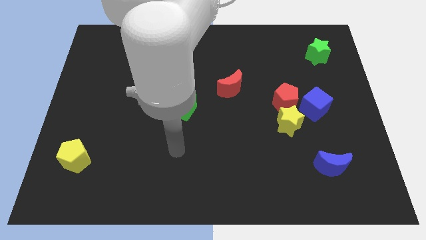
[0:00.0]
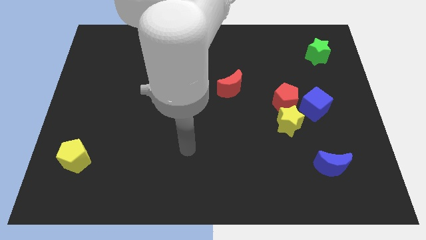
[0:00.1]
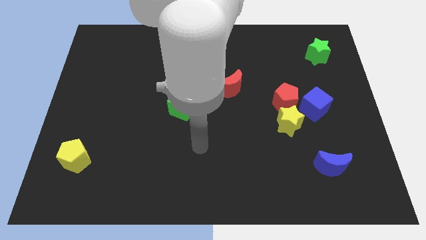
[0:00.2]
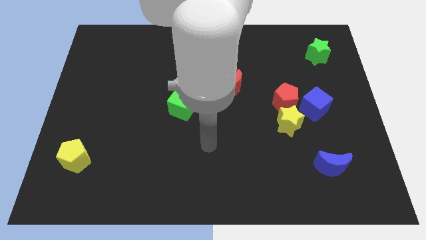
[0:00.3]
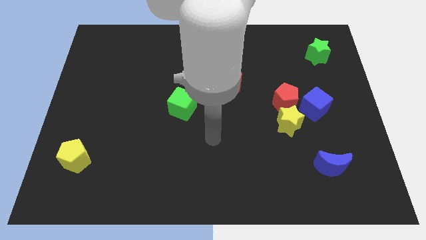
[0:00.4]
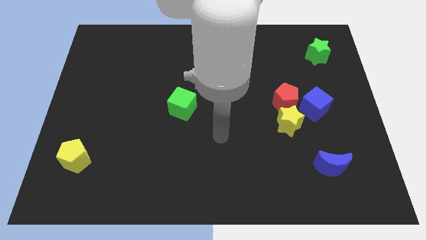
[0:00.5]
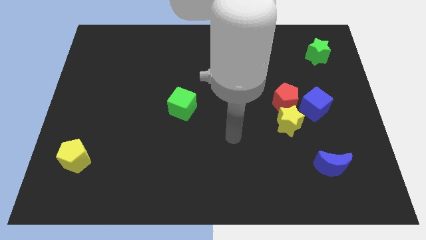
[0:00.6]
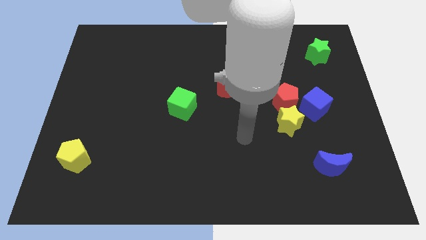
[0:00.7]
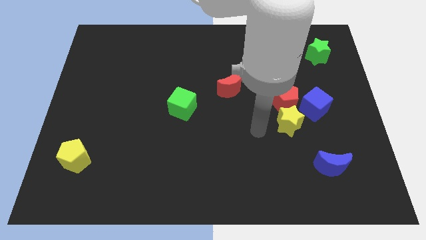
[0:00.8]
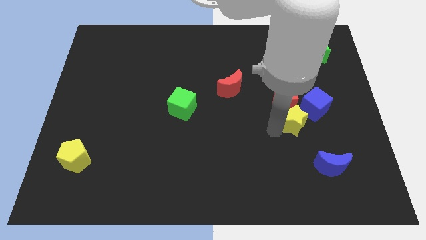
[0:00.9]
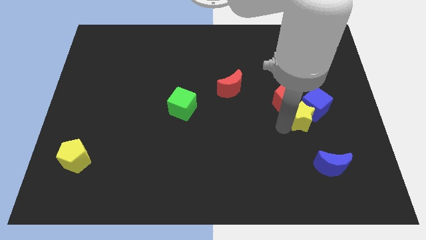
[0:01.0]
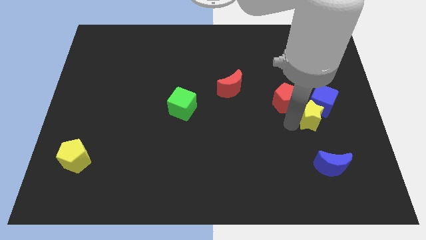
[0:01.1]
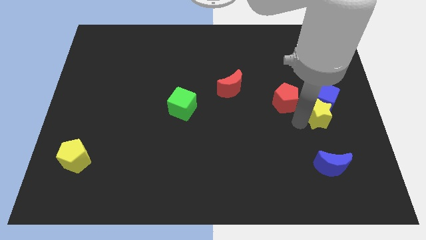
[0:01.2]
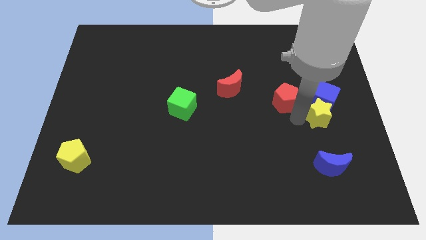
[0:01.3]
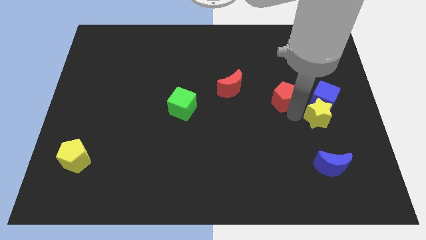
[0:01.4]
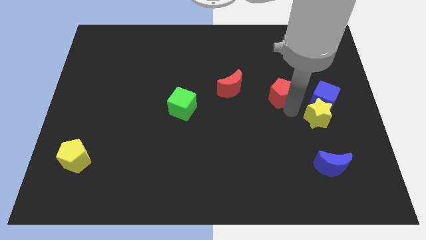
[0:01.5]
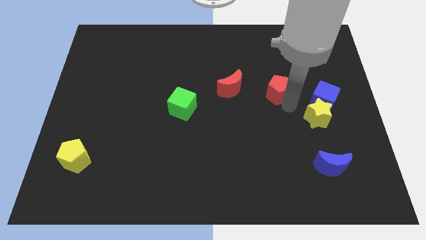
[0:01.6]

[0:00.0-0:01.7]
separate the red pentagon from the yellow star and blue cube

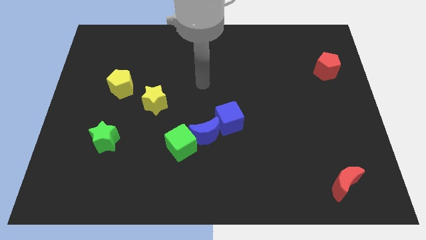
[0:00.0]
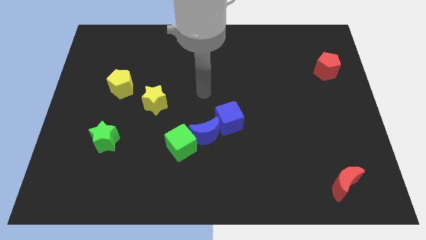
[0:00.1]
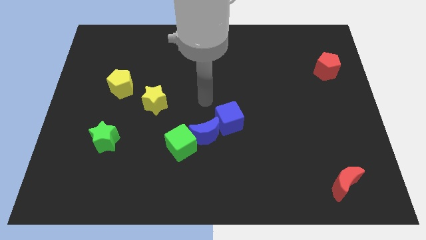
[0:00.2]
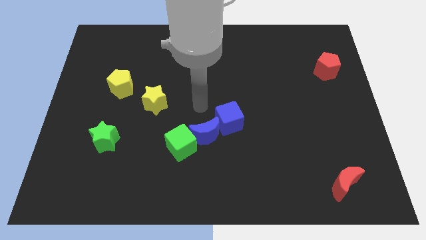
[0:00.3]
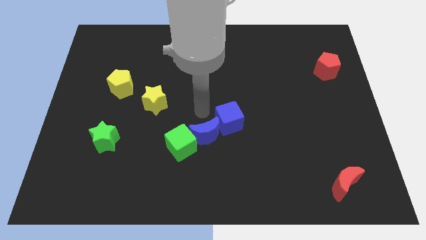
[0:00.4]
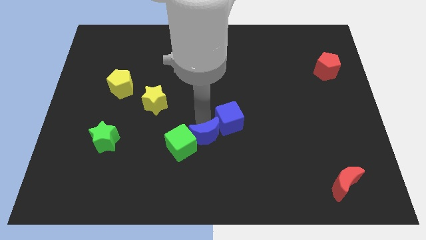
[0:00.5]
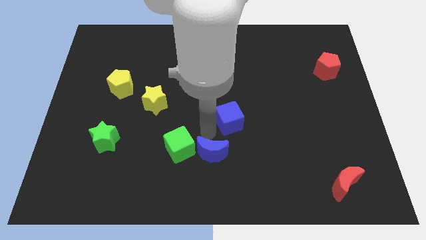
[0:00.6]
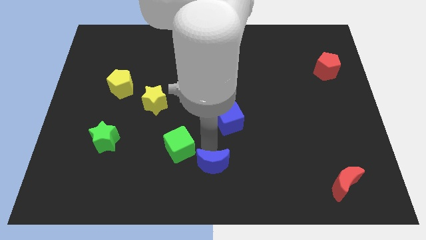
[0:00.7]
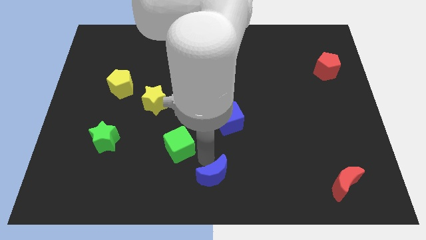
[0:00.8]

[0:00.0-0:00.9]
separate the green cube from the blue moon

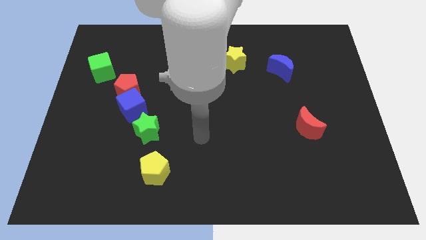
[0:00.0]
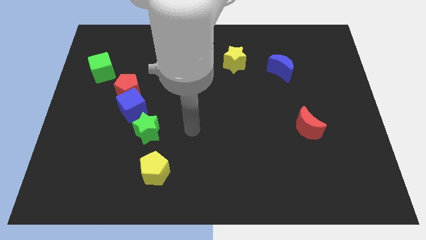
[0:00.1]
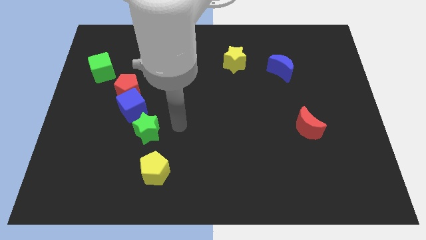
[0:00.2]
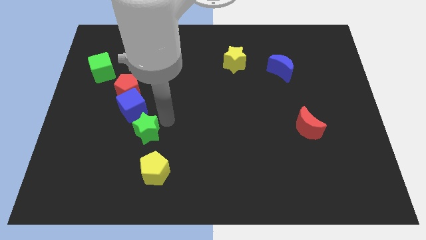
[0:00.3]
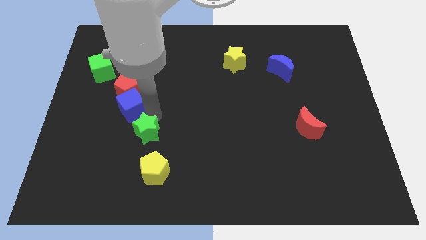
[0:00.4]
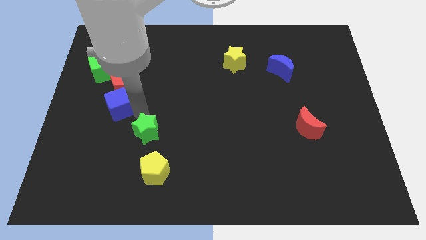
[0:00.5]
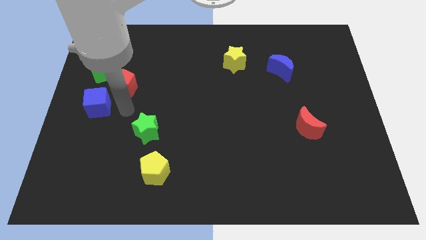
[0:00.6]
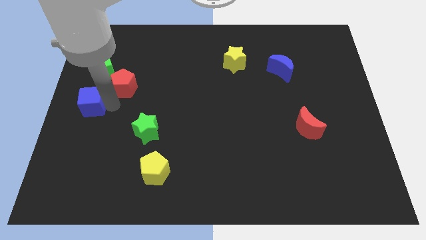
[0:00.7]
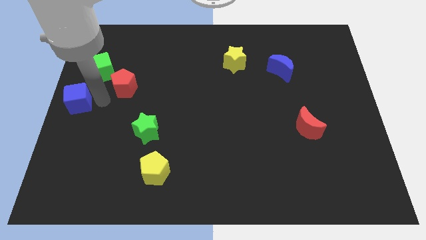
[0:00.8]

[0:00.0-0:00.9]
pull the red pentagon apart from the blue cube

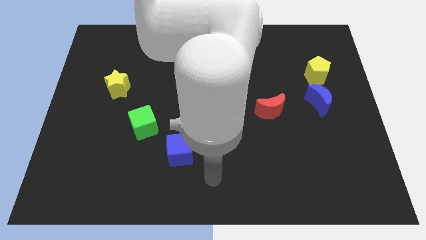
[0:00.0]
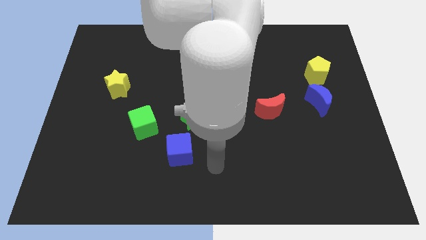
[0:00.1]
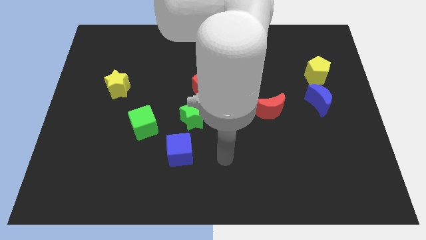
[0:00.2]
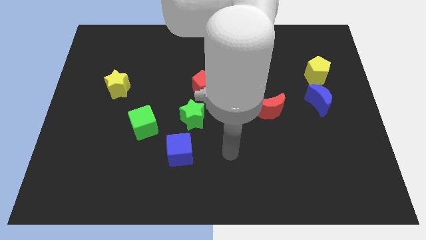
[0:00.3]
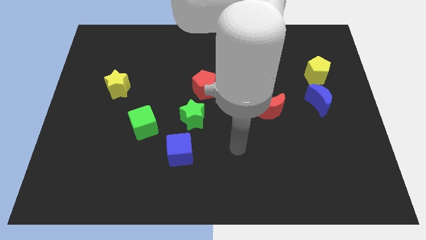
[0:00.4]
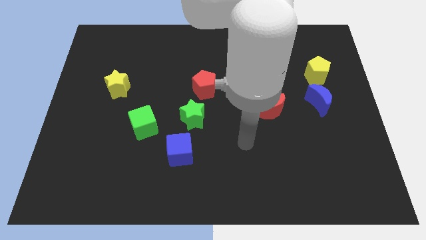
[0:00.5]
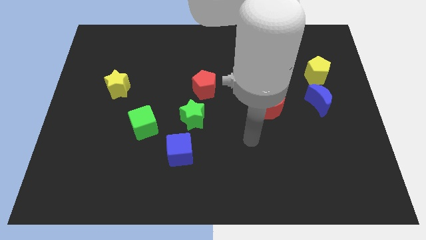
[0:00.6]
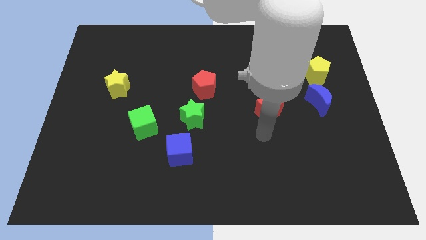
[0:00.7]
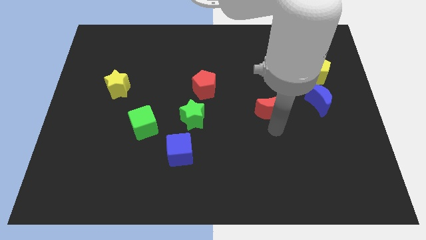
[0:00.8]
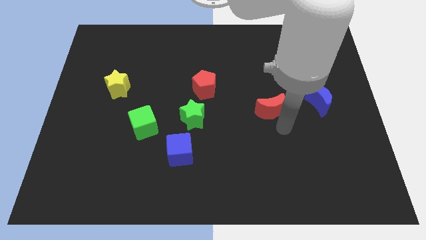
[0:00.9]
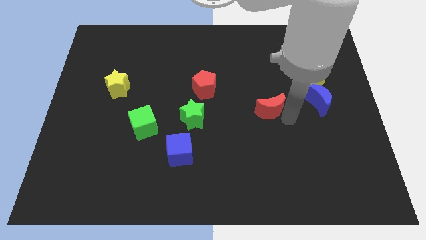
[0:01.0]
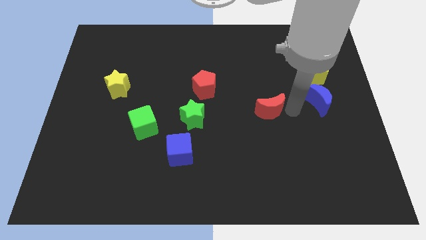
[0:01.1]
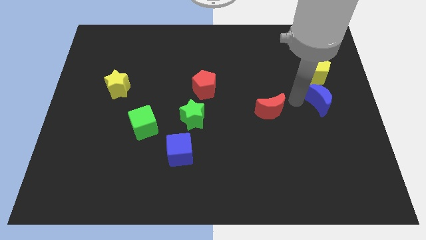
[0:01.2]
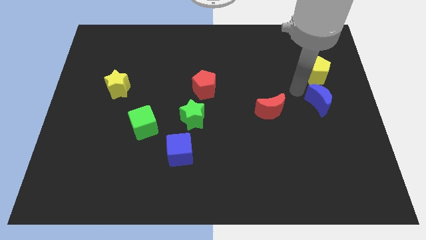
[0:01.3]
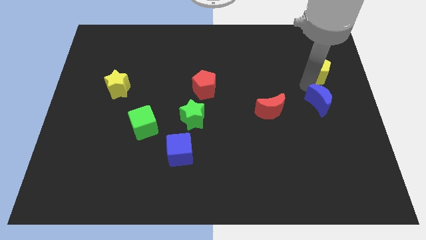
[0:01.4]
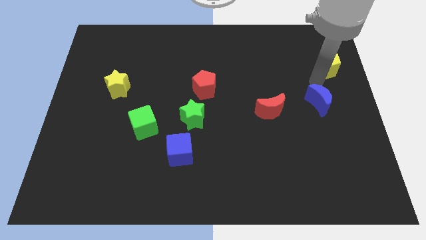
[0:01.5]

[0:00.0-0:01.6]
pull the blue moon apart from the yellow pentagon

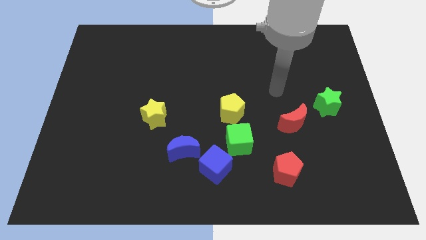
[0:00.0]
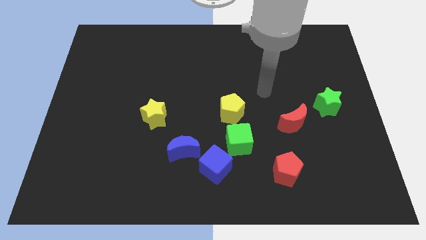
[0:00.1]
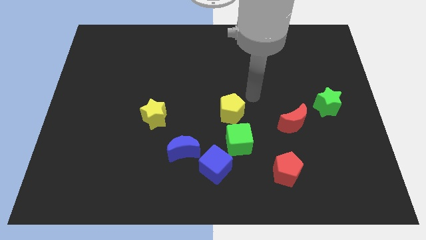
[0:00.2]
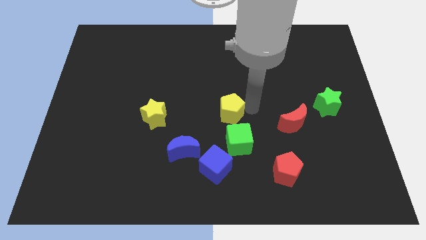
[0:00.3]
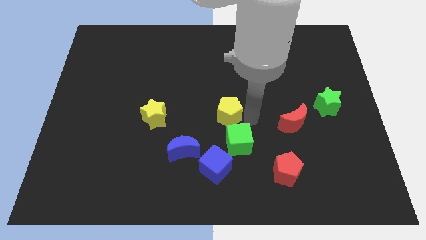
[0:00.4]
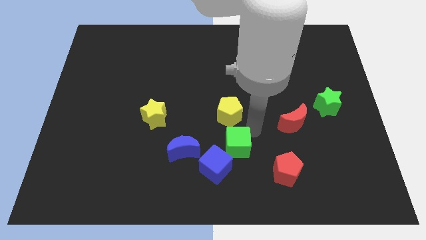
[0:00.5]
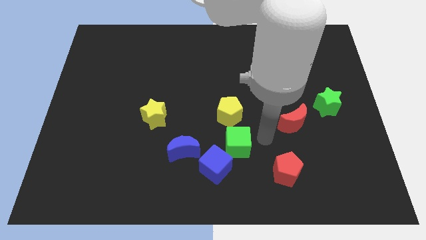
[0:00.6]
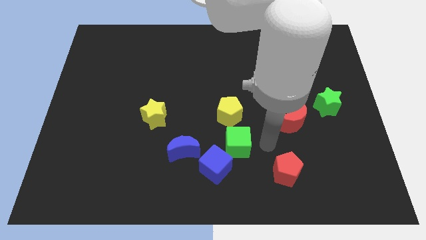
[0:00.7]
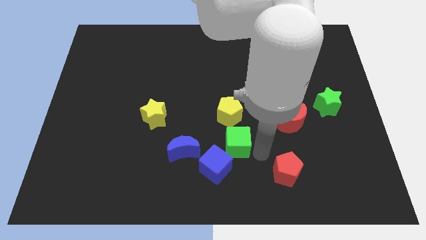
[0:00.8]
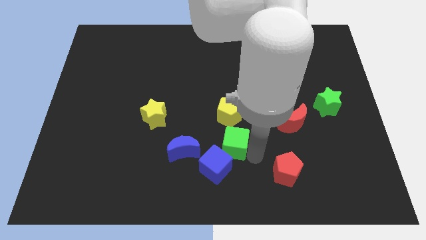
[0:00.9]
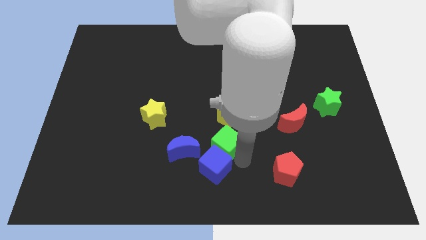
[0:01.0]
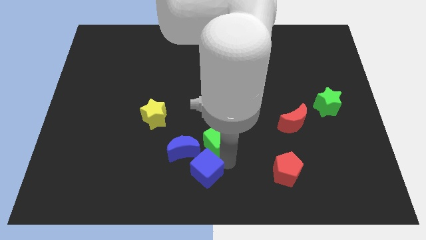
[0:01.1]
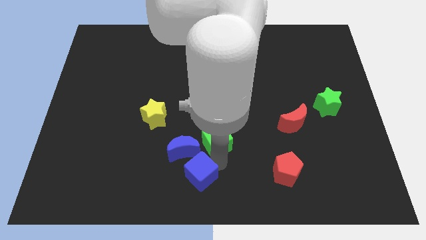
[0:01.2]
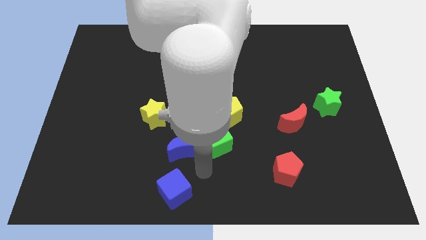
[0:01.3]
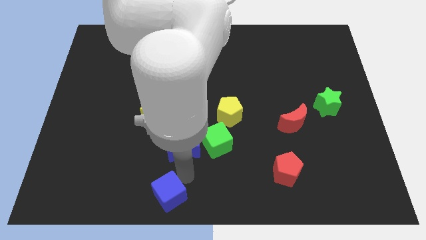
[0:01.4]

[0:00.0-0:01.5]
separate the blue moon from the blue cube

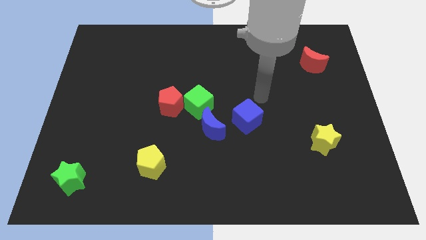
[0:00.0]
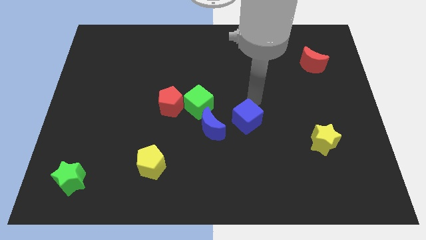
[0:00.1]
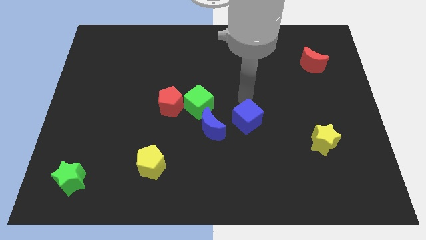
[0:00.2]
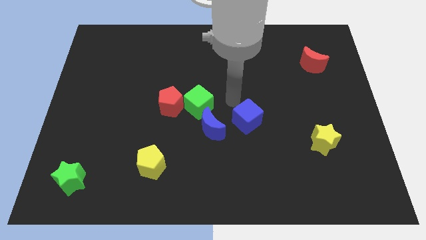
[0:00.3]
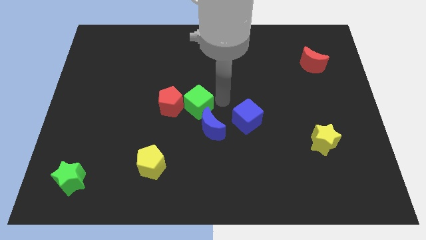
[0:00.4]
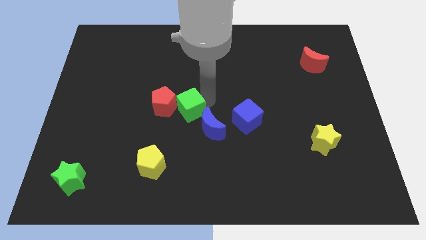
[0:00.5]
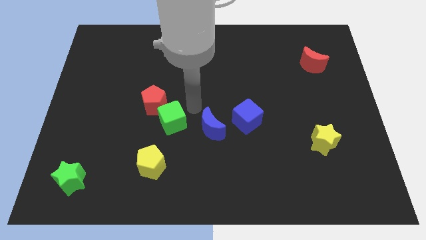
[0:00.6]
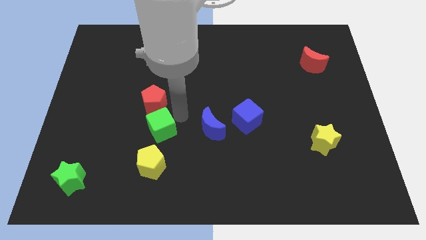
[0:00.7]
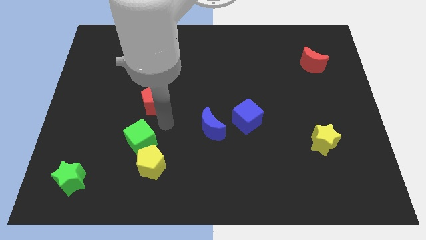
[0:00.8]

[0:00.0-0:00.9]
move the red pentagon away from the green cube

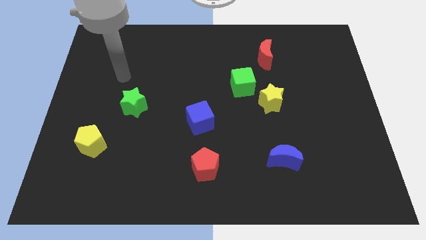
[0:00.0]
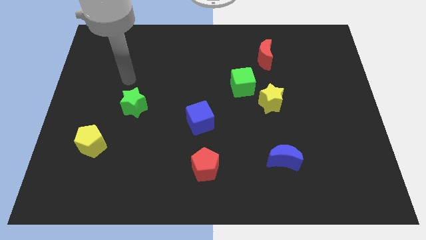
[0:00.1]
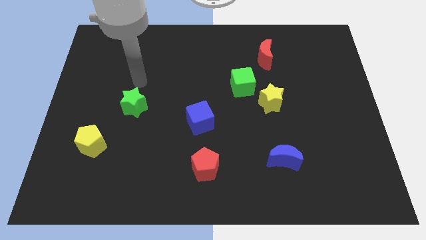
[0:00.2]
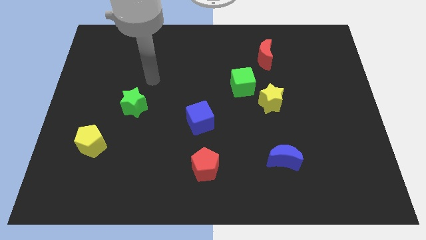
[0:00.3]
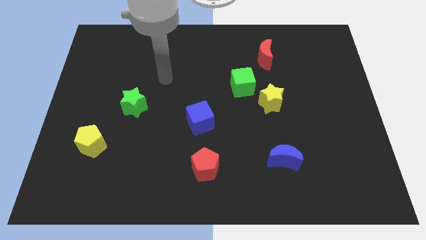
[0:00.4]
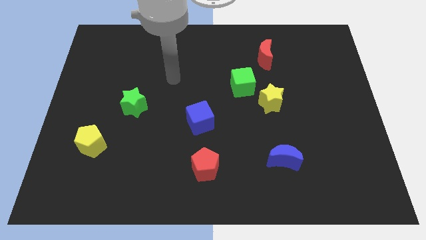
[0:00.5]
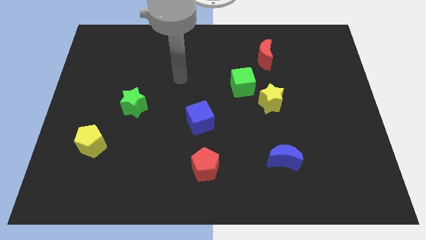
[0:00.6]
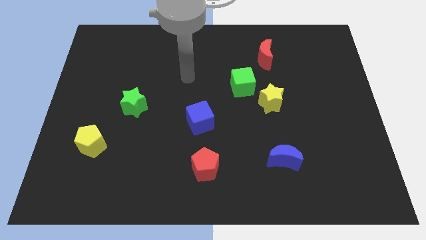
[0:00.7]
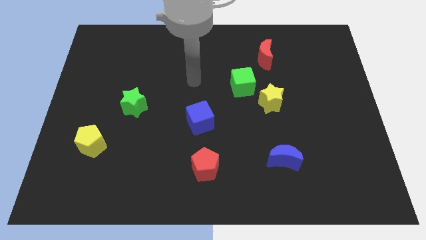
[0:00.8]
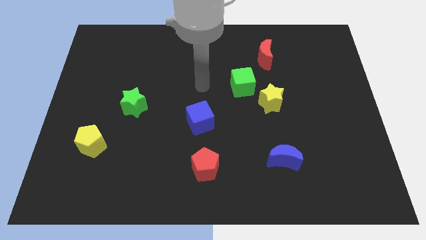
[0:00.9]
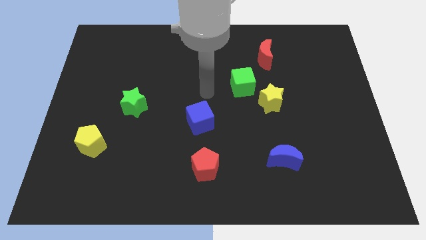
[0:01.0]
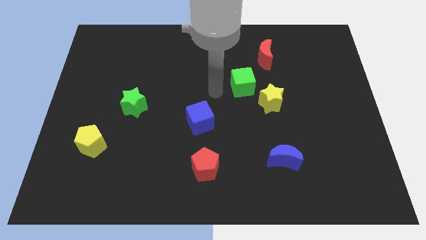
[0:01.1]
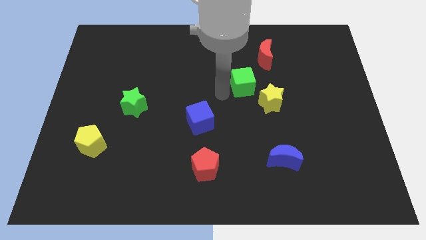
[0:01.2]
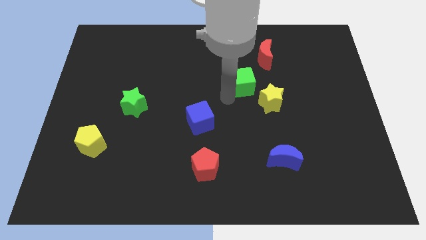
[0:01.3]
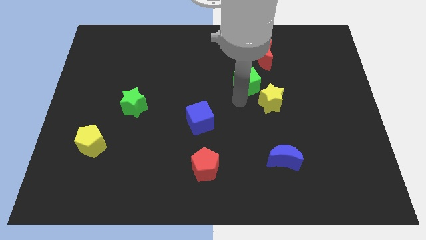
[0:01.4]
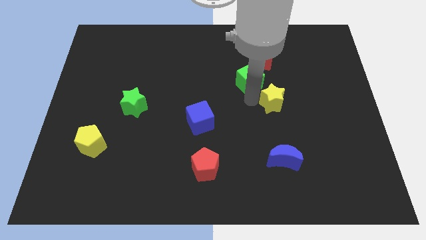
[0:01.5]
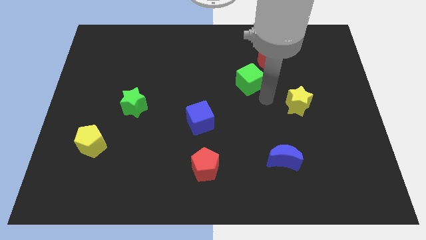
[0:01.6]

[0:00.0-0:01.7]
move the green cube away from the yellow star

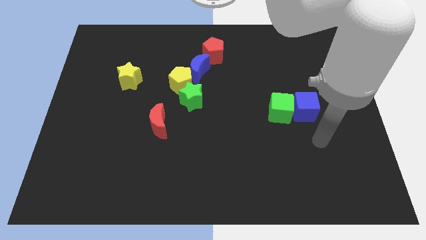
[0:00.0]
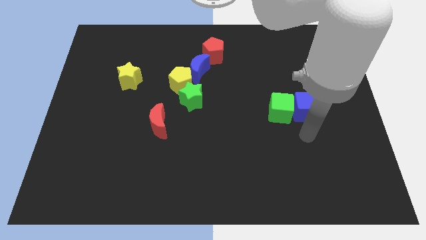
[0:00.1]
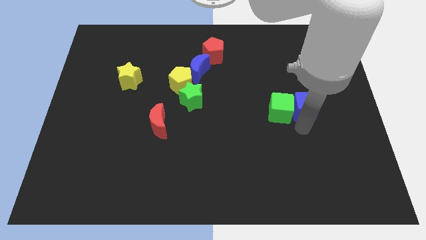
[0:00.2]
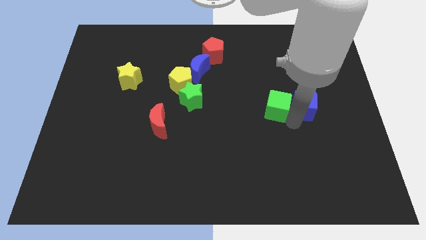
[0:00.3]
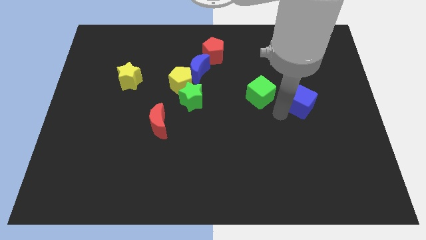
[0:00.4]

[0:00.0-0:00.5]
pull the blue cube apart from the green cube
